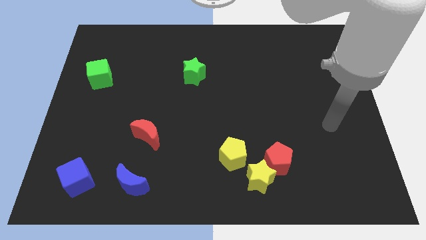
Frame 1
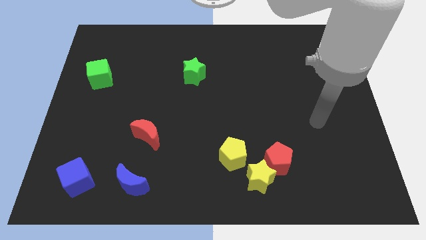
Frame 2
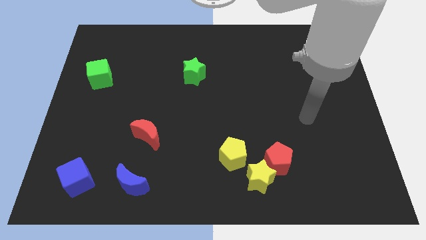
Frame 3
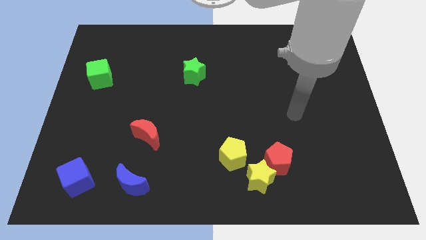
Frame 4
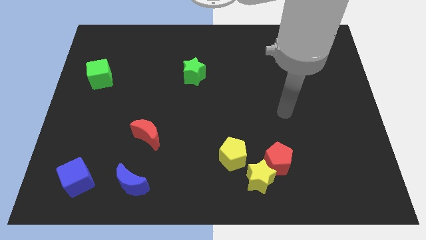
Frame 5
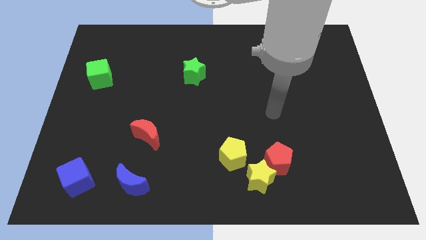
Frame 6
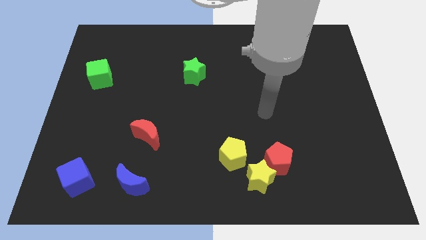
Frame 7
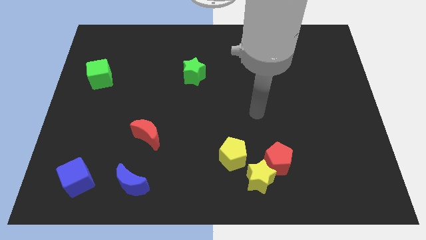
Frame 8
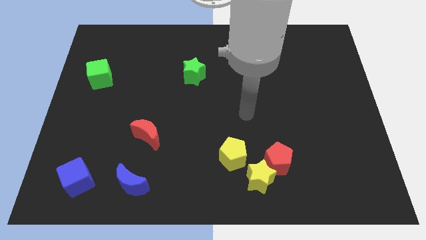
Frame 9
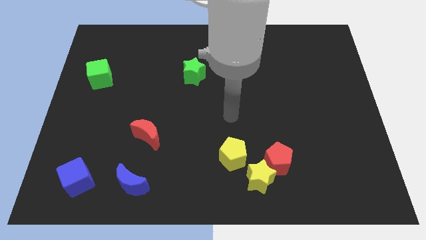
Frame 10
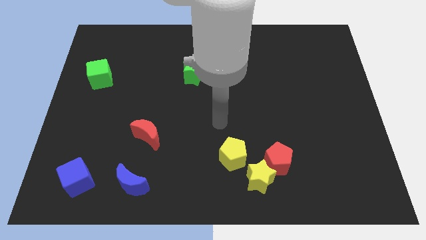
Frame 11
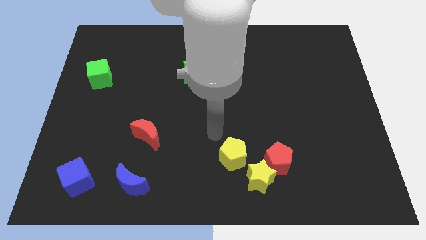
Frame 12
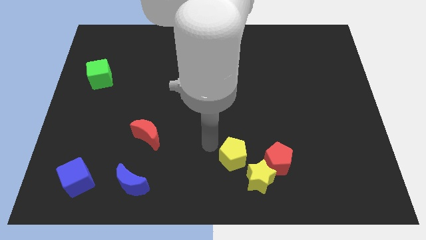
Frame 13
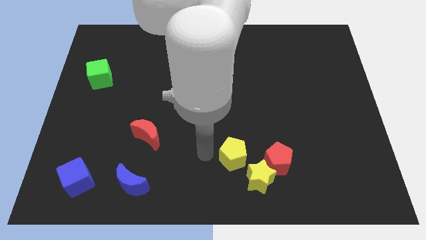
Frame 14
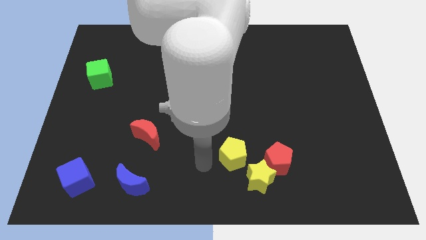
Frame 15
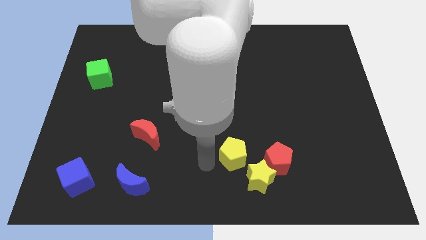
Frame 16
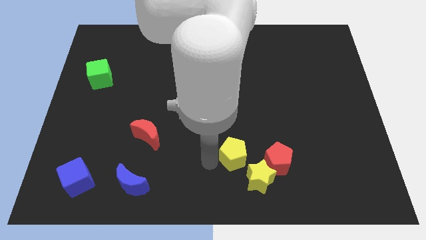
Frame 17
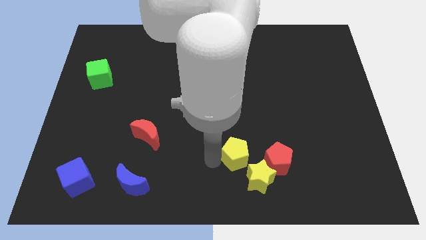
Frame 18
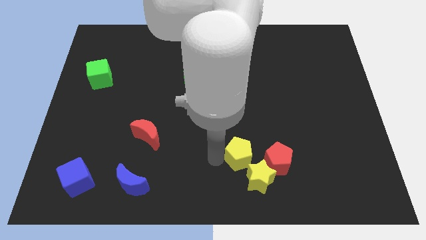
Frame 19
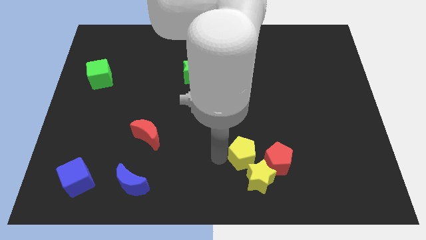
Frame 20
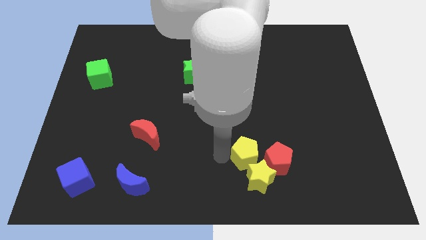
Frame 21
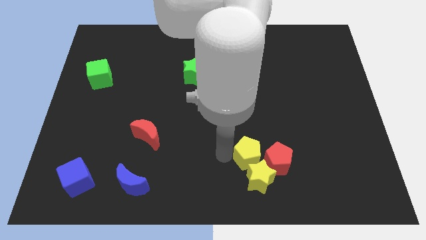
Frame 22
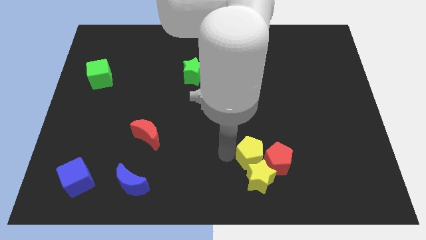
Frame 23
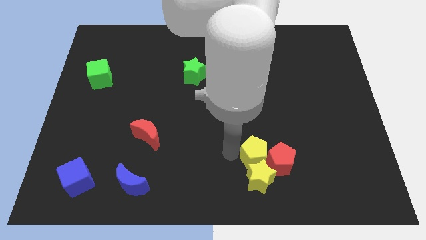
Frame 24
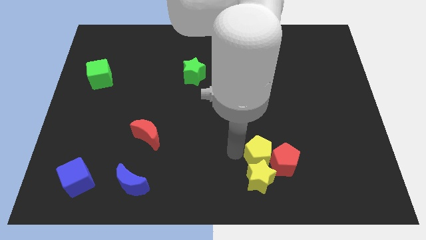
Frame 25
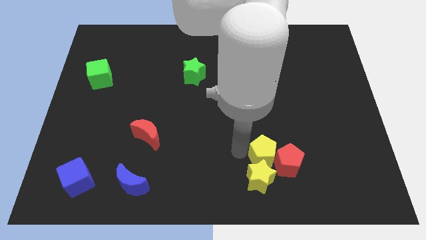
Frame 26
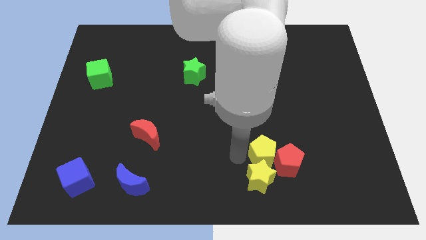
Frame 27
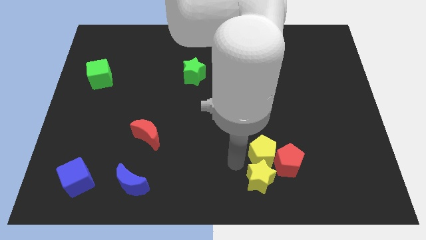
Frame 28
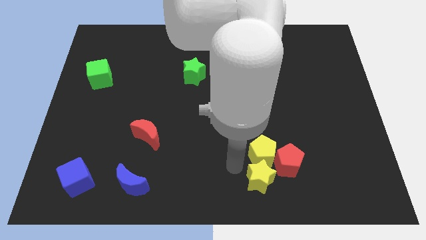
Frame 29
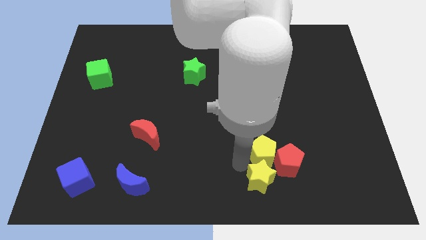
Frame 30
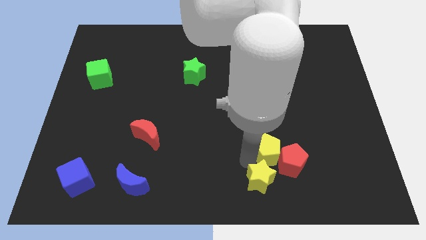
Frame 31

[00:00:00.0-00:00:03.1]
slightly slide the yellow pentagon right

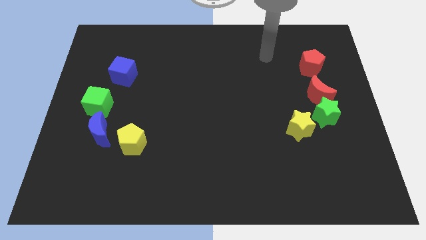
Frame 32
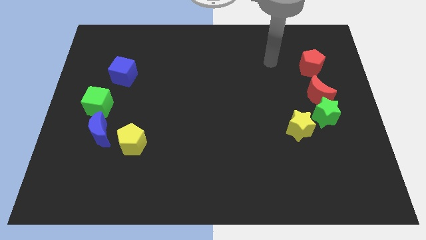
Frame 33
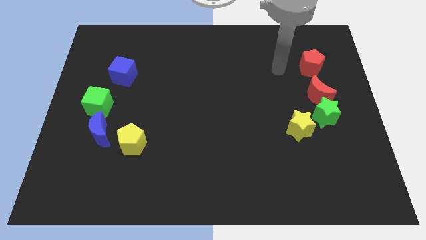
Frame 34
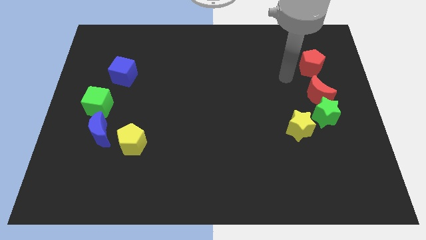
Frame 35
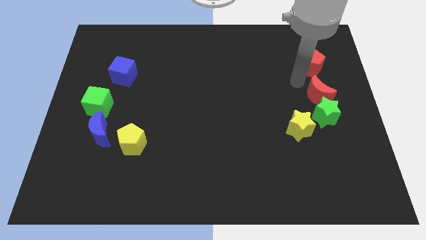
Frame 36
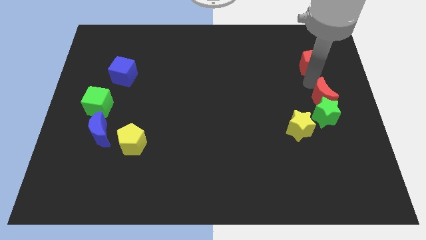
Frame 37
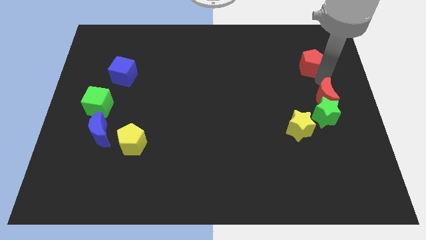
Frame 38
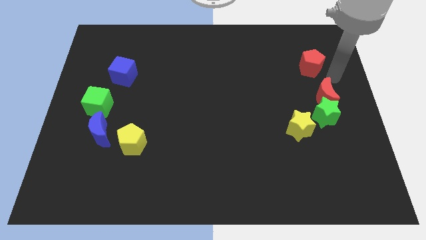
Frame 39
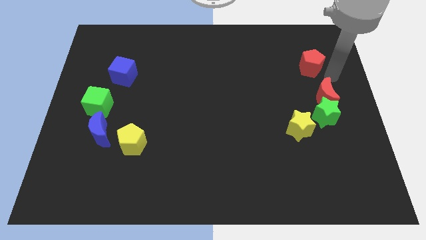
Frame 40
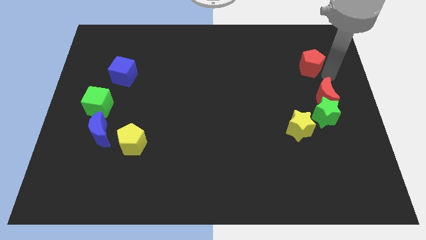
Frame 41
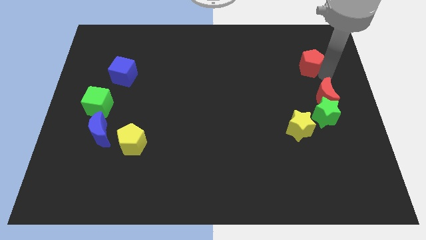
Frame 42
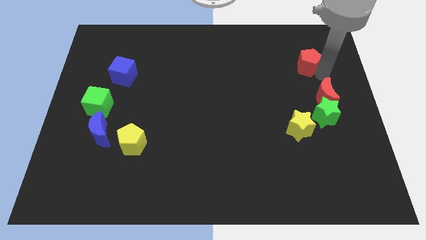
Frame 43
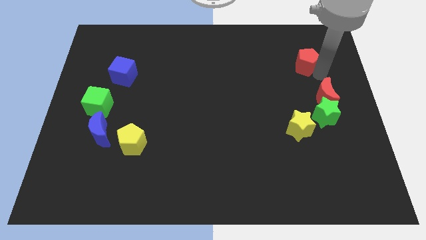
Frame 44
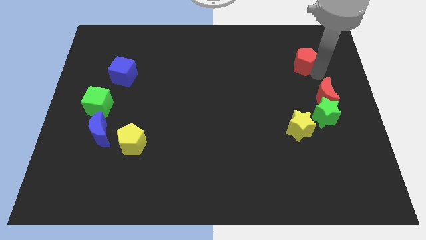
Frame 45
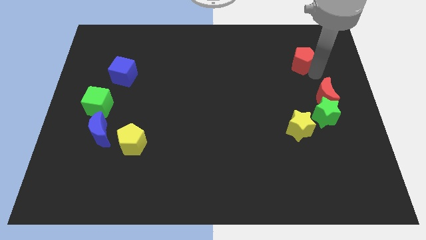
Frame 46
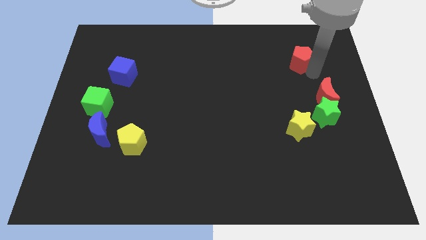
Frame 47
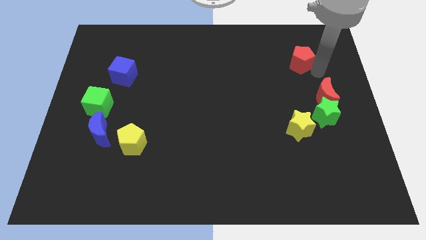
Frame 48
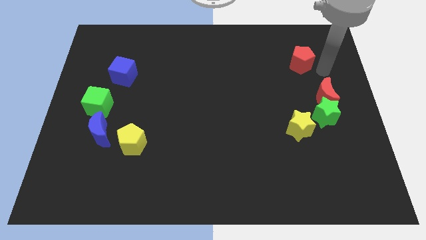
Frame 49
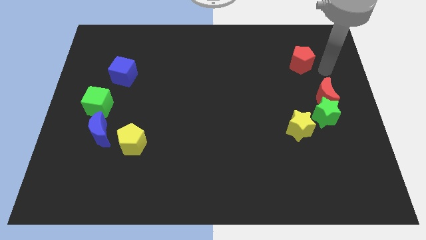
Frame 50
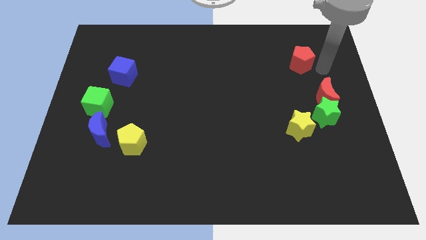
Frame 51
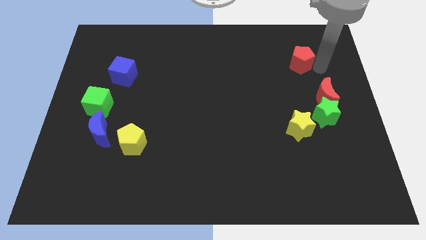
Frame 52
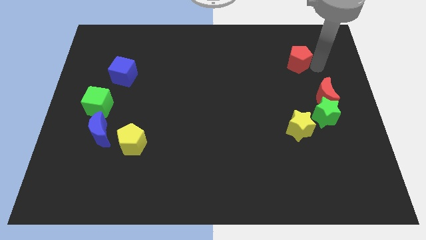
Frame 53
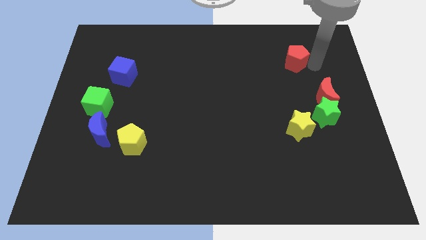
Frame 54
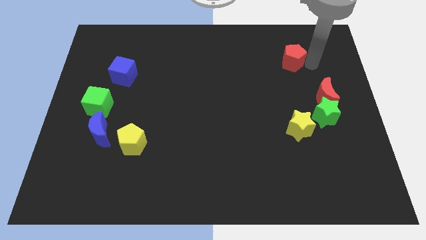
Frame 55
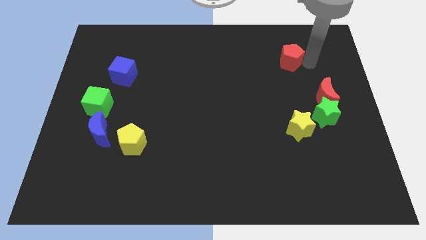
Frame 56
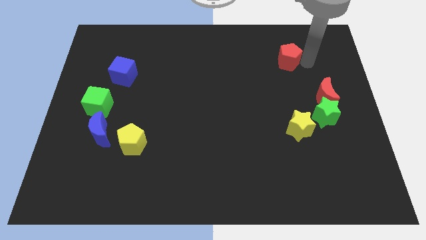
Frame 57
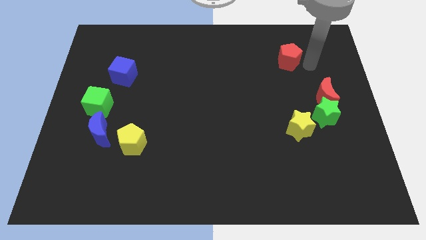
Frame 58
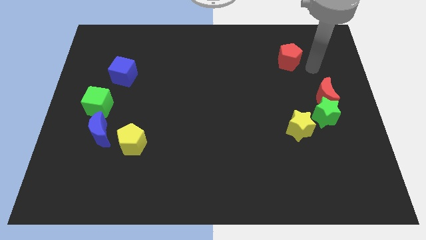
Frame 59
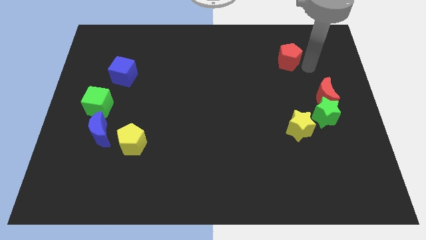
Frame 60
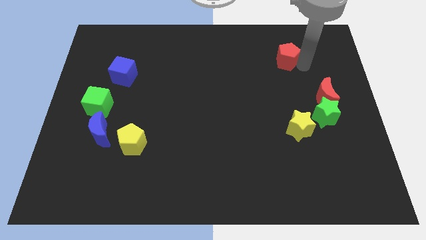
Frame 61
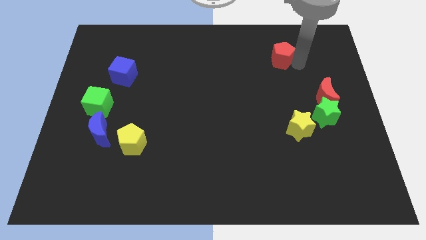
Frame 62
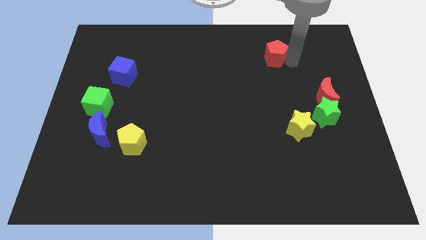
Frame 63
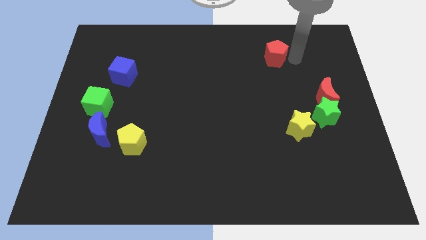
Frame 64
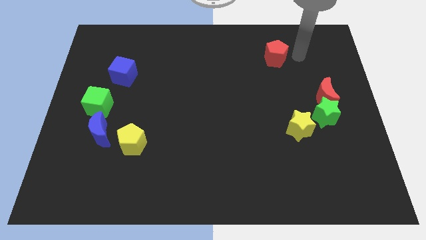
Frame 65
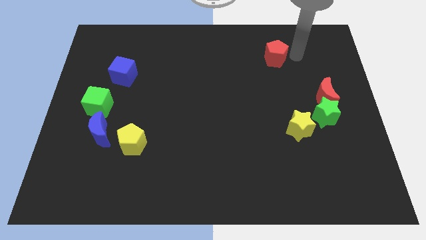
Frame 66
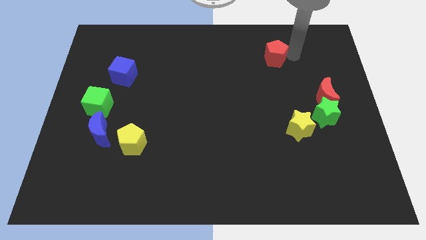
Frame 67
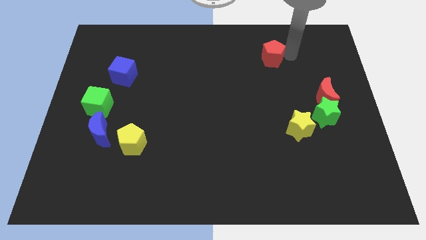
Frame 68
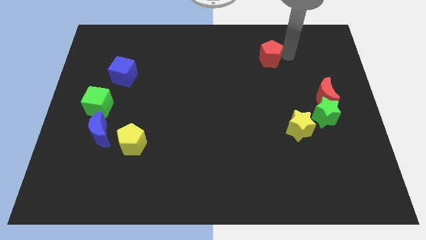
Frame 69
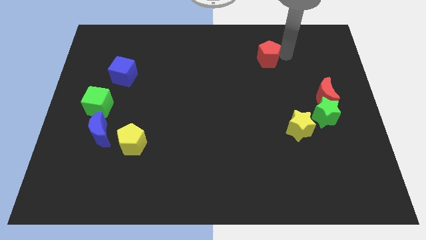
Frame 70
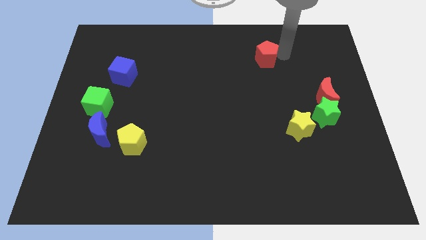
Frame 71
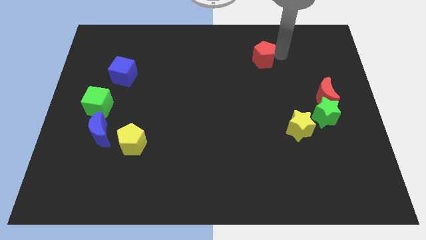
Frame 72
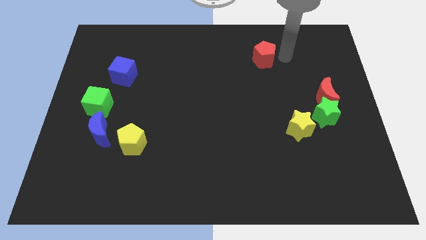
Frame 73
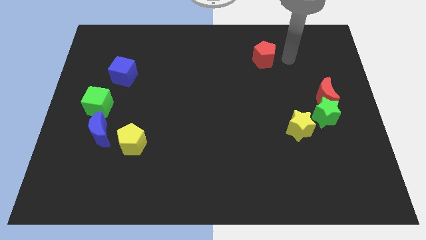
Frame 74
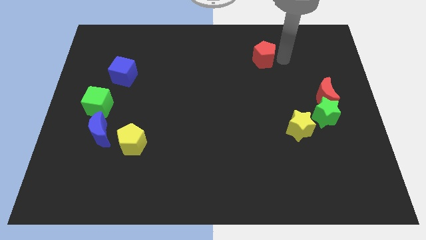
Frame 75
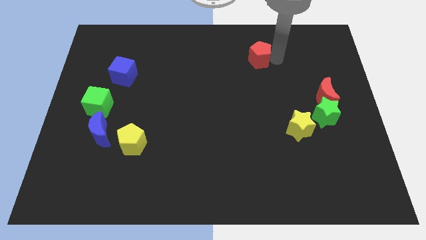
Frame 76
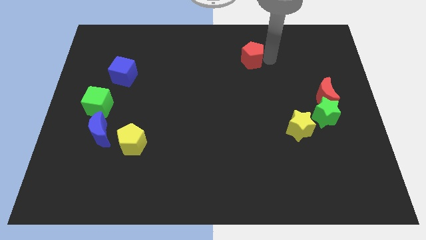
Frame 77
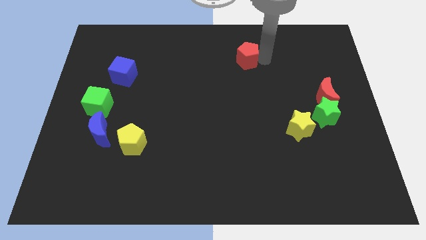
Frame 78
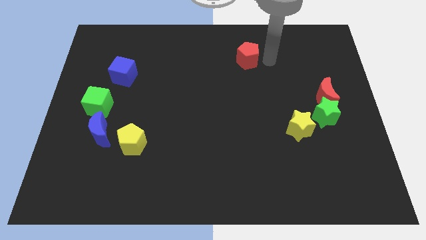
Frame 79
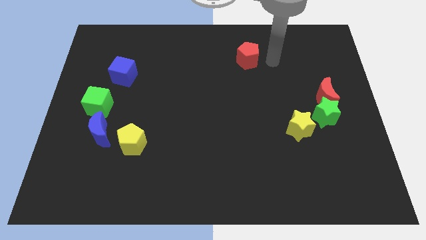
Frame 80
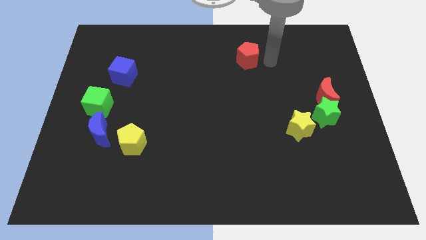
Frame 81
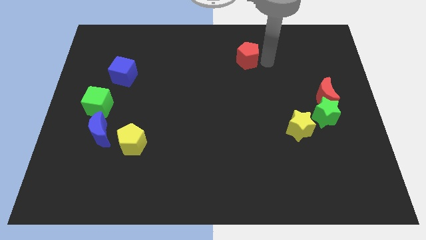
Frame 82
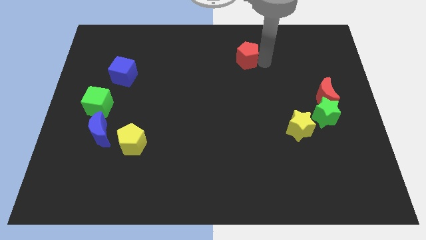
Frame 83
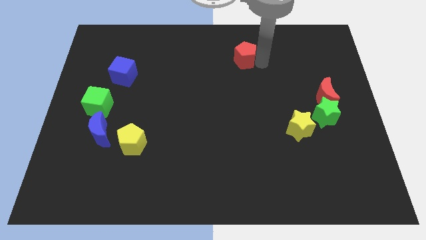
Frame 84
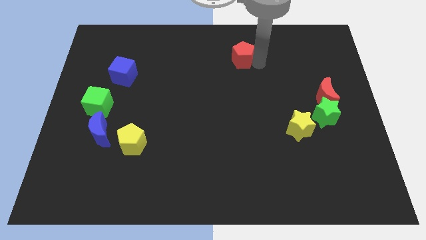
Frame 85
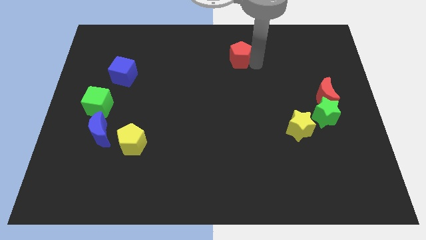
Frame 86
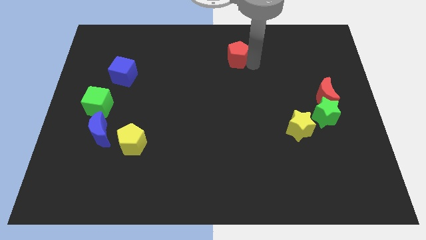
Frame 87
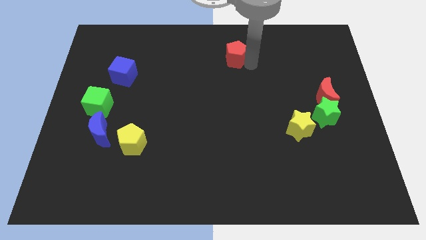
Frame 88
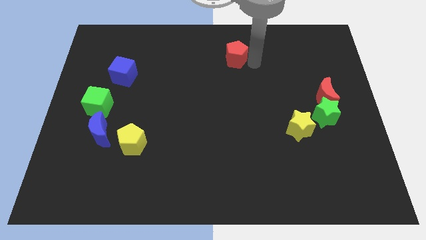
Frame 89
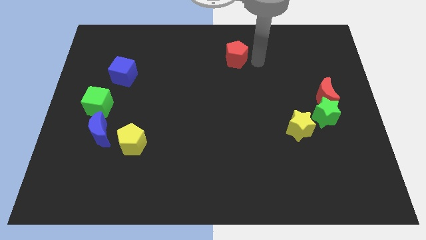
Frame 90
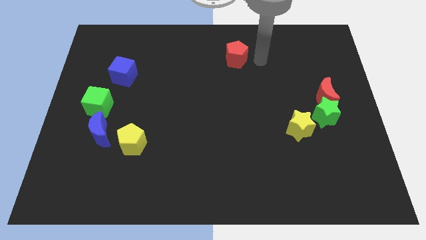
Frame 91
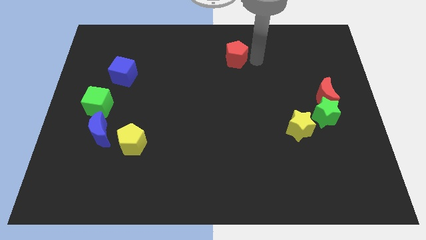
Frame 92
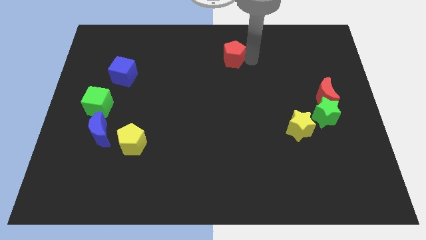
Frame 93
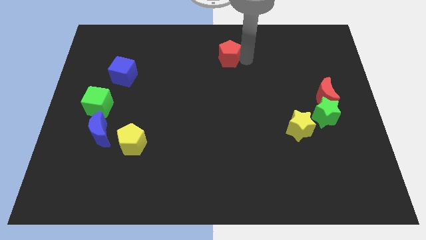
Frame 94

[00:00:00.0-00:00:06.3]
push the red pentagon to the left
